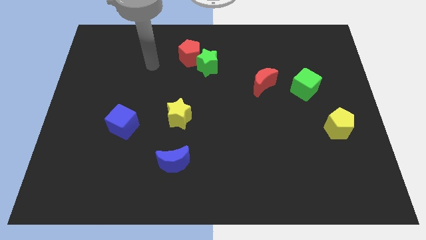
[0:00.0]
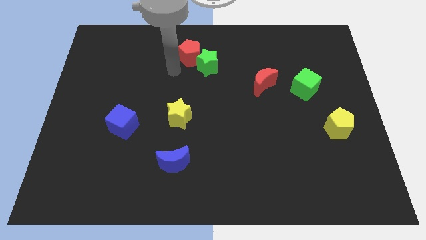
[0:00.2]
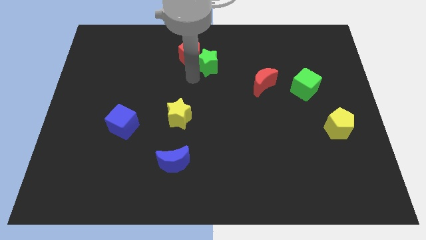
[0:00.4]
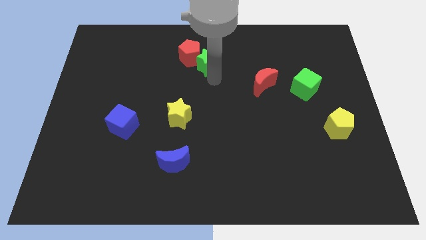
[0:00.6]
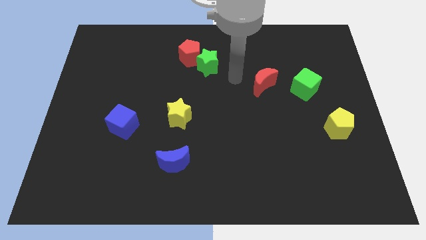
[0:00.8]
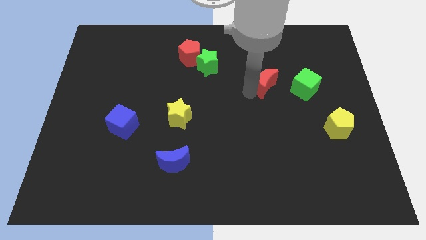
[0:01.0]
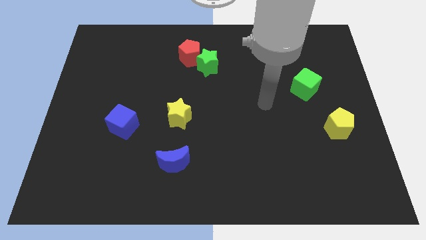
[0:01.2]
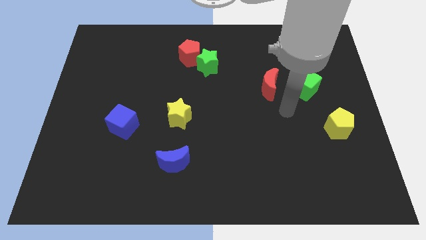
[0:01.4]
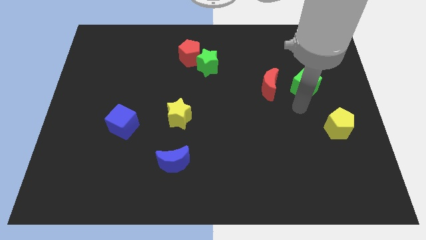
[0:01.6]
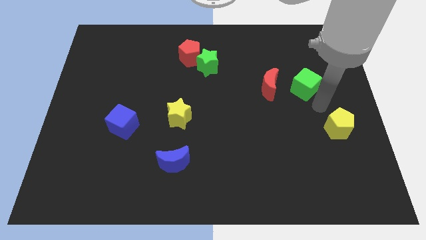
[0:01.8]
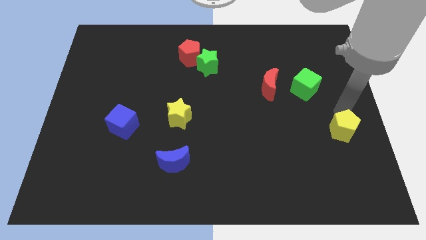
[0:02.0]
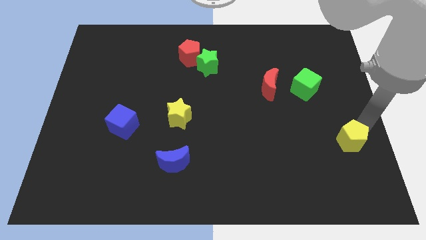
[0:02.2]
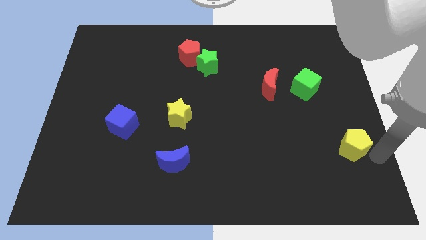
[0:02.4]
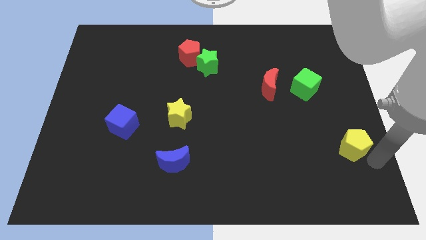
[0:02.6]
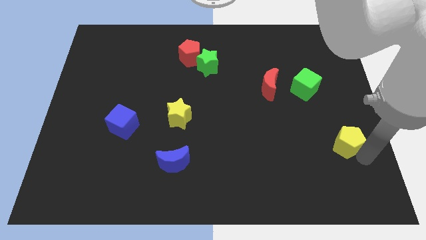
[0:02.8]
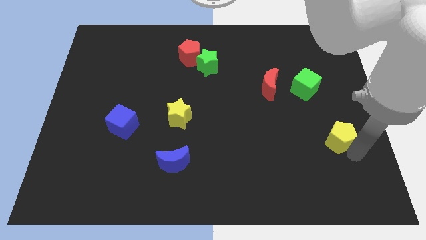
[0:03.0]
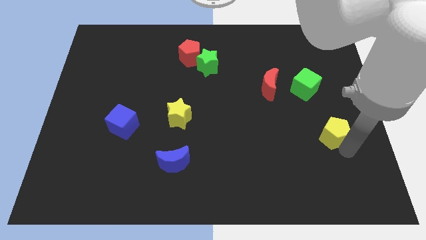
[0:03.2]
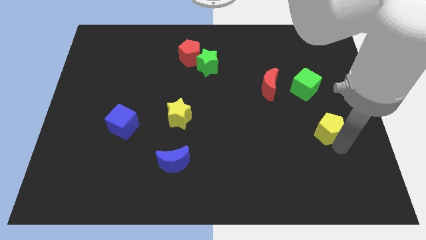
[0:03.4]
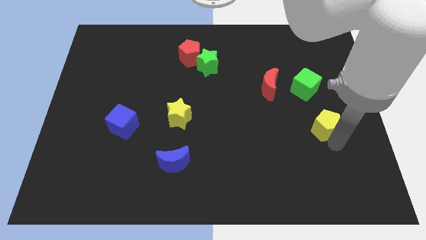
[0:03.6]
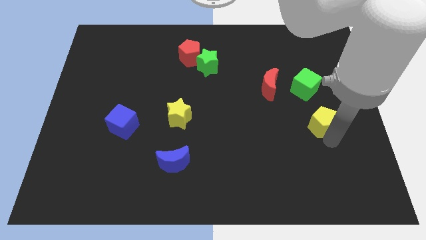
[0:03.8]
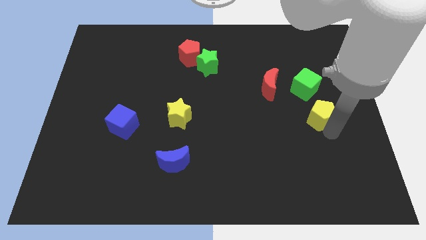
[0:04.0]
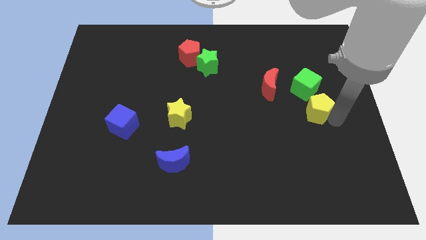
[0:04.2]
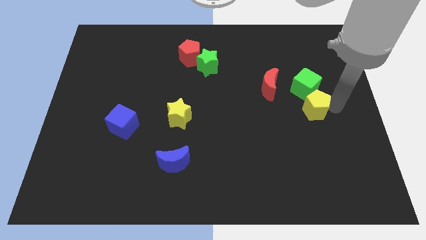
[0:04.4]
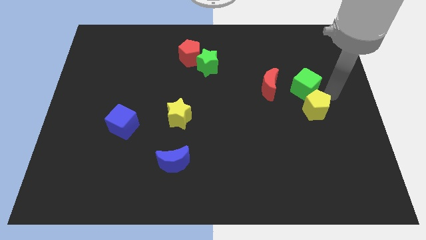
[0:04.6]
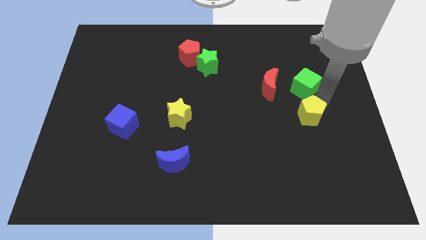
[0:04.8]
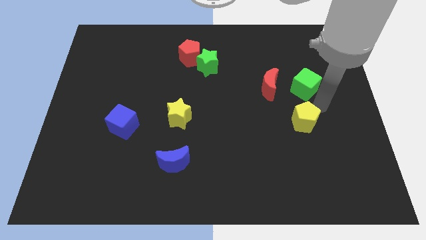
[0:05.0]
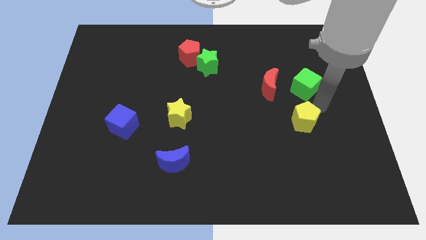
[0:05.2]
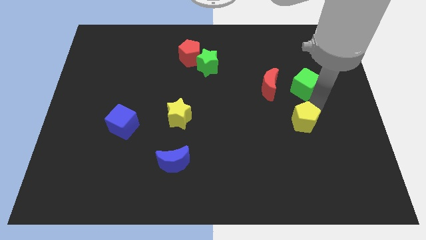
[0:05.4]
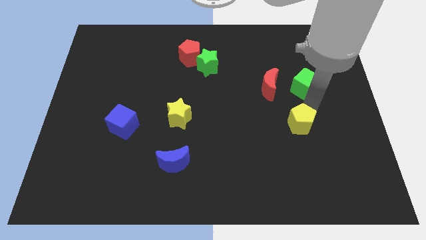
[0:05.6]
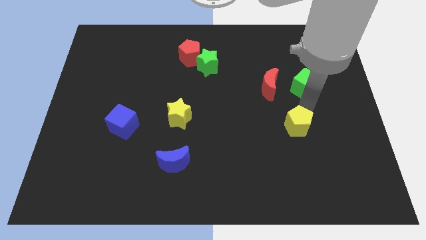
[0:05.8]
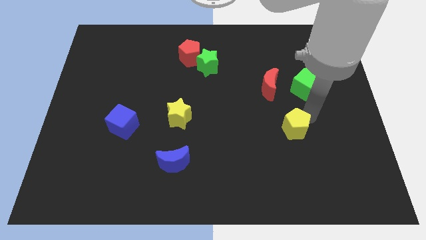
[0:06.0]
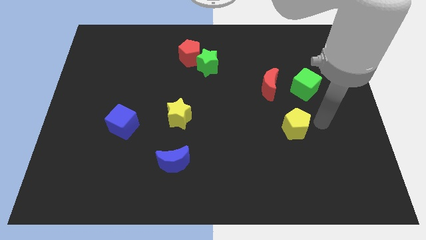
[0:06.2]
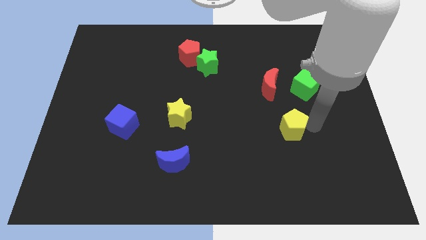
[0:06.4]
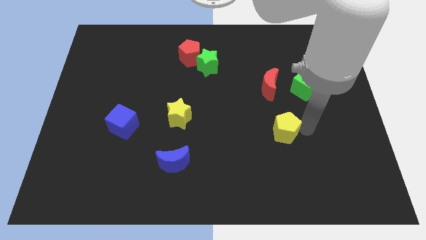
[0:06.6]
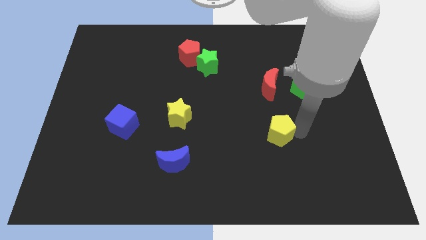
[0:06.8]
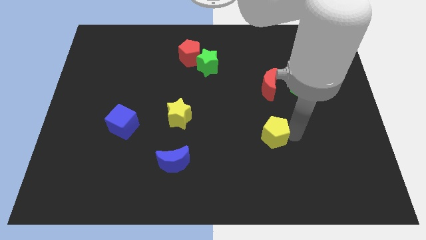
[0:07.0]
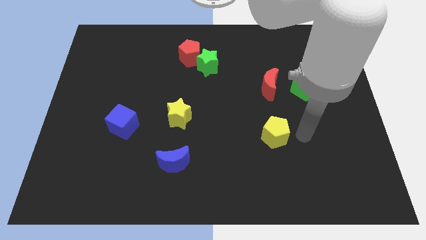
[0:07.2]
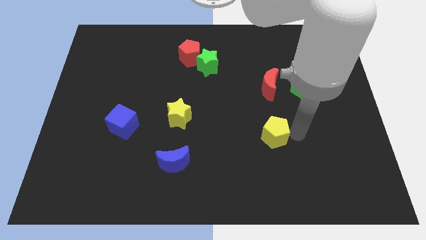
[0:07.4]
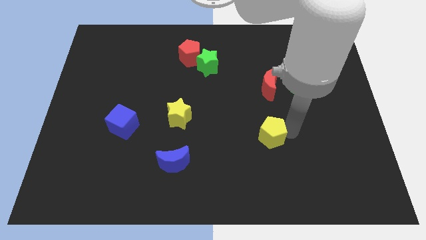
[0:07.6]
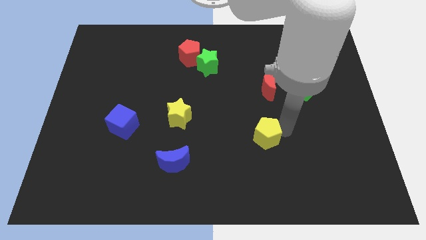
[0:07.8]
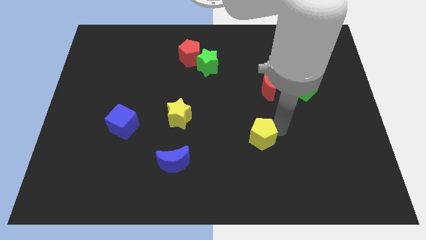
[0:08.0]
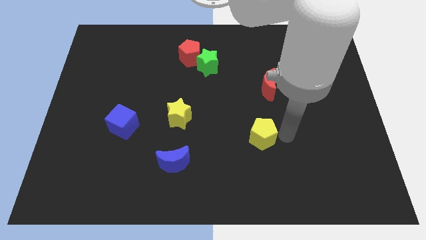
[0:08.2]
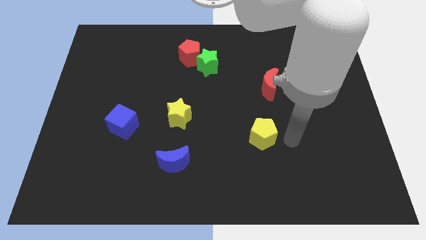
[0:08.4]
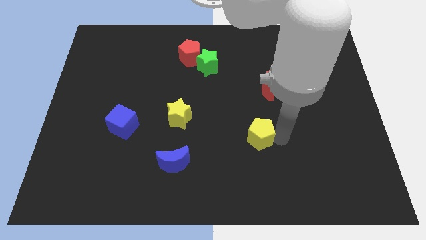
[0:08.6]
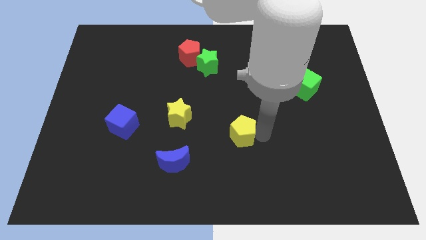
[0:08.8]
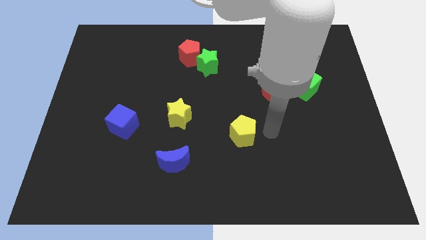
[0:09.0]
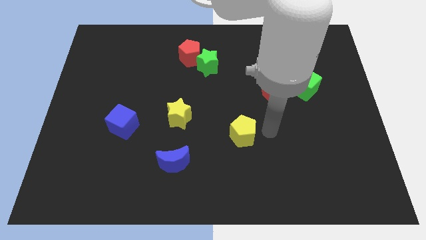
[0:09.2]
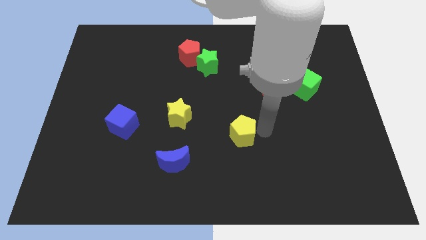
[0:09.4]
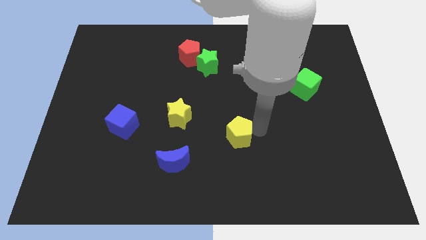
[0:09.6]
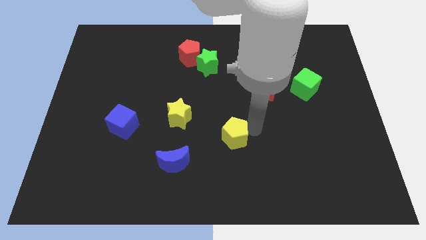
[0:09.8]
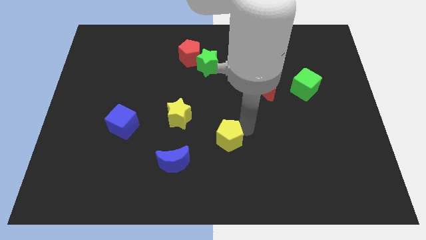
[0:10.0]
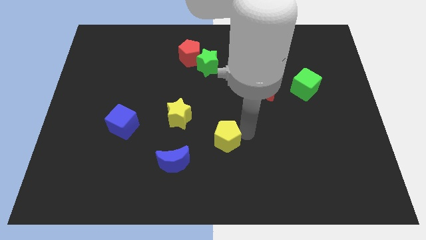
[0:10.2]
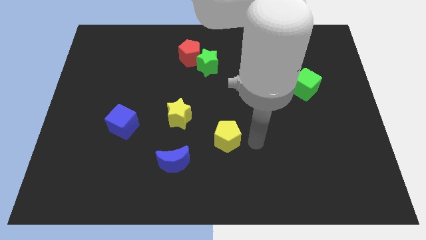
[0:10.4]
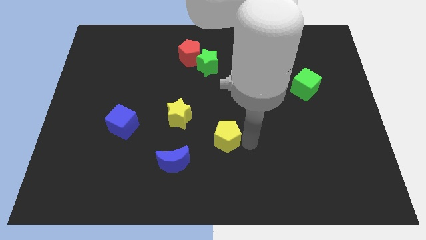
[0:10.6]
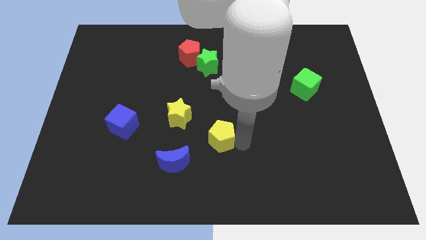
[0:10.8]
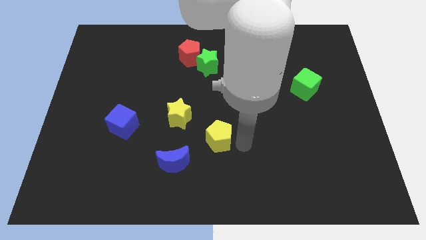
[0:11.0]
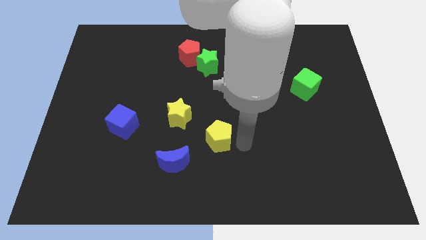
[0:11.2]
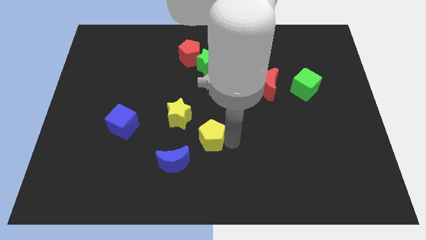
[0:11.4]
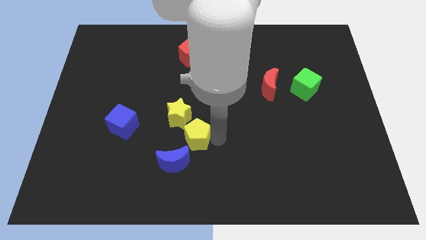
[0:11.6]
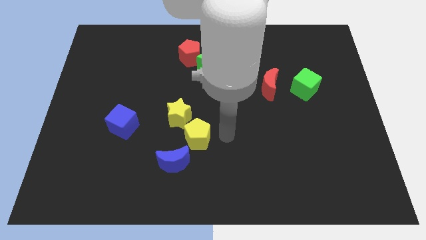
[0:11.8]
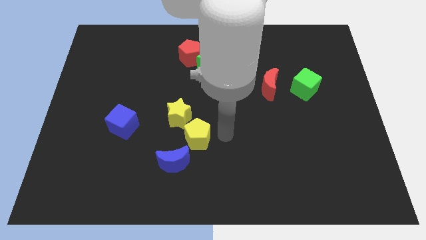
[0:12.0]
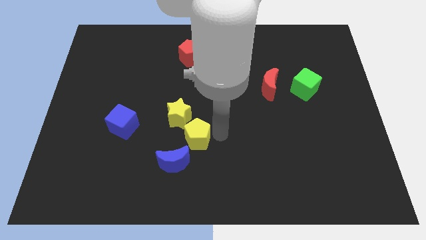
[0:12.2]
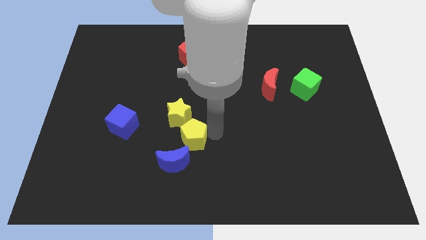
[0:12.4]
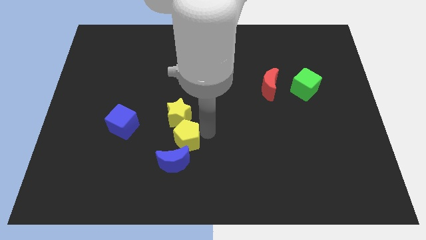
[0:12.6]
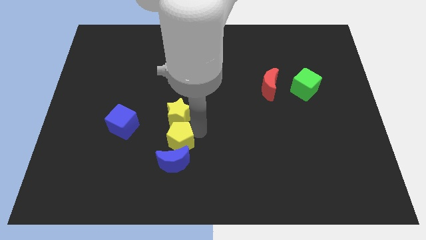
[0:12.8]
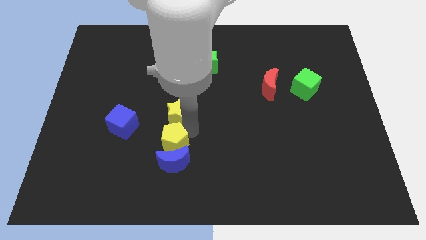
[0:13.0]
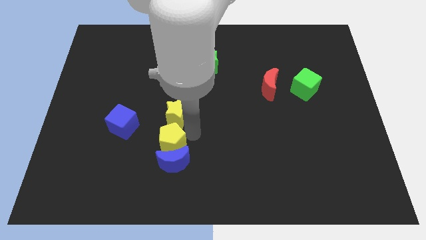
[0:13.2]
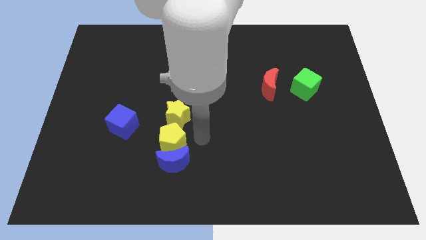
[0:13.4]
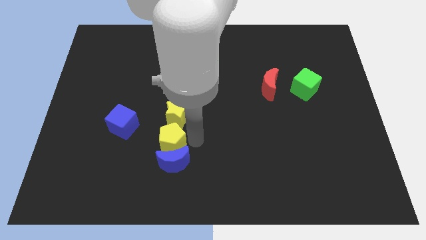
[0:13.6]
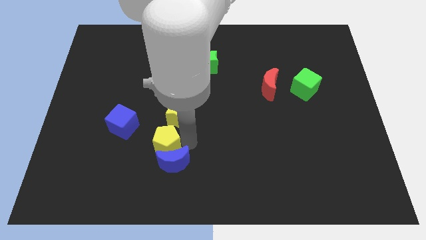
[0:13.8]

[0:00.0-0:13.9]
put the yellow pentagon diagonally down and to the right of the blue cube

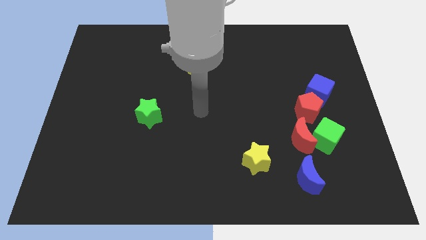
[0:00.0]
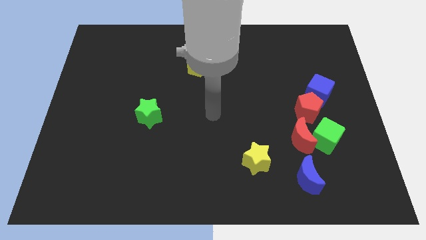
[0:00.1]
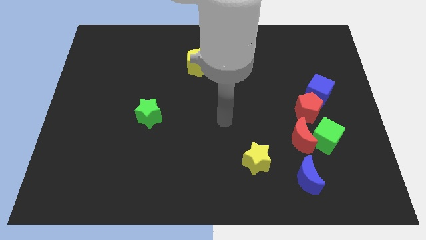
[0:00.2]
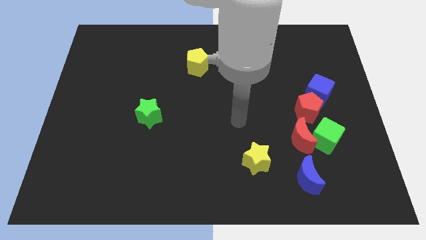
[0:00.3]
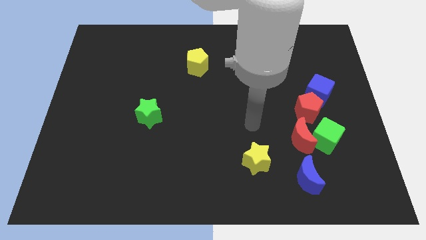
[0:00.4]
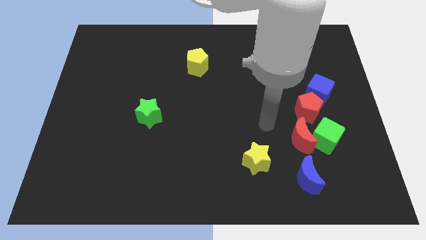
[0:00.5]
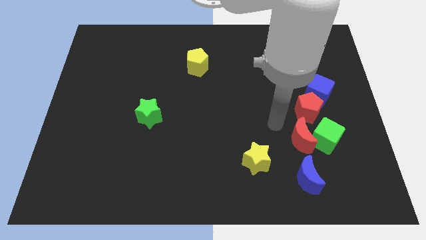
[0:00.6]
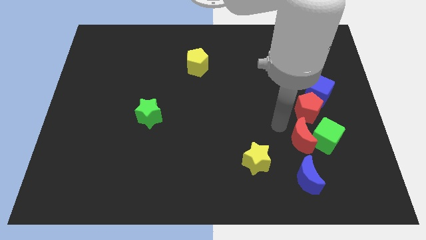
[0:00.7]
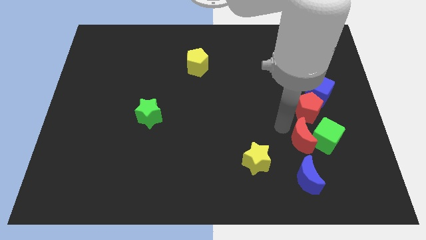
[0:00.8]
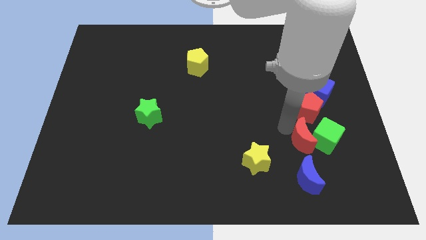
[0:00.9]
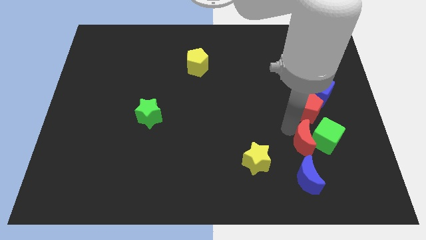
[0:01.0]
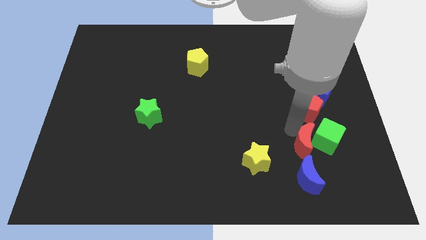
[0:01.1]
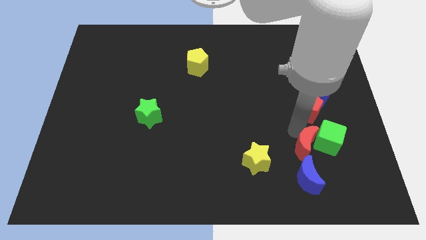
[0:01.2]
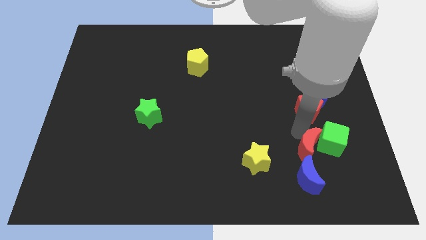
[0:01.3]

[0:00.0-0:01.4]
slide the red moon to the top right side of the blue moon
